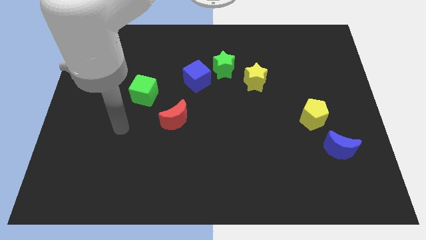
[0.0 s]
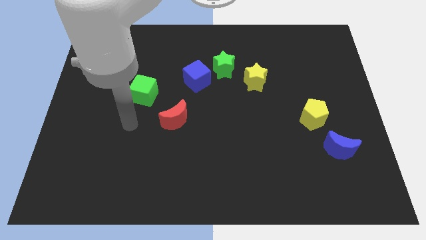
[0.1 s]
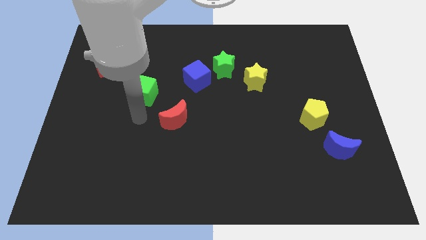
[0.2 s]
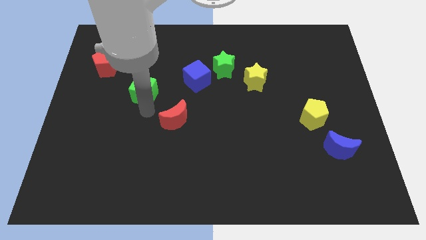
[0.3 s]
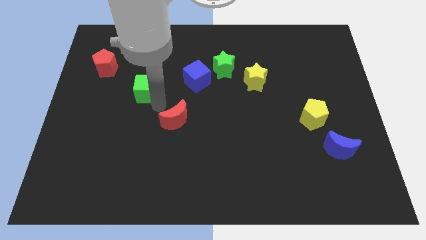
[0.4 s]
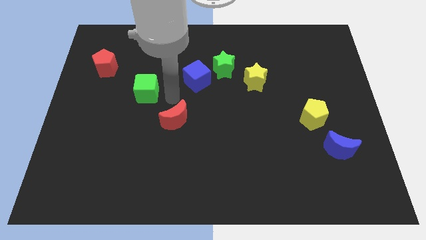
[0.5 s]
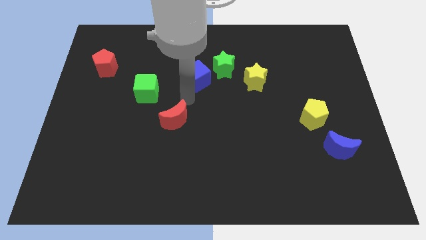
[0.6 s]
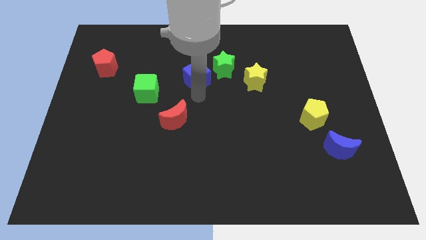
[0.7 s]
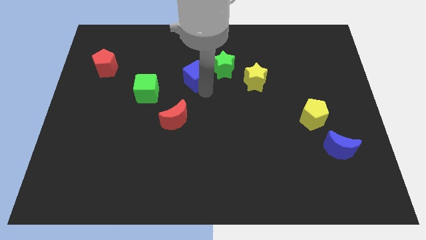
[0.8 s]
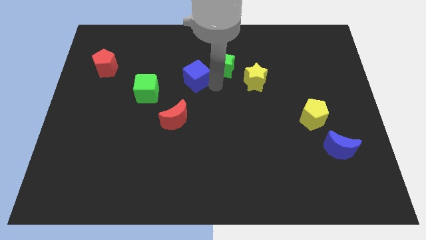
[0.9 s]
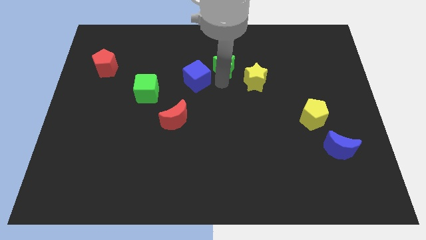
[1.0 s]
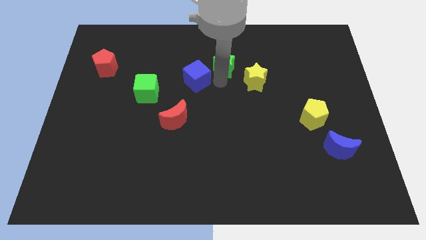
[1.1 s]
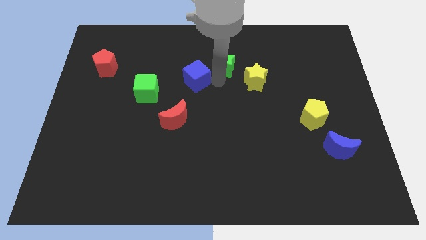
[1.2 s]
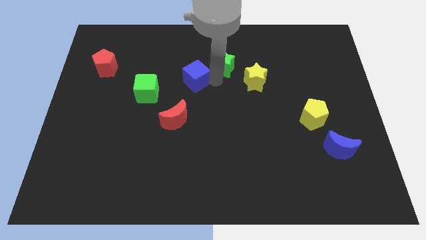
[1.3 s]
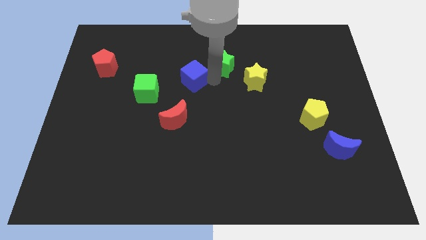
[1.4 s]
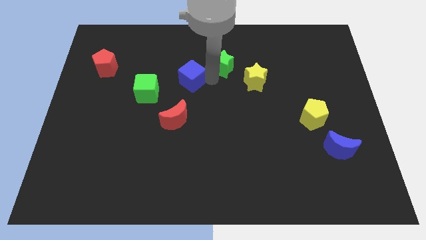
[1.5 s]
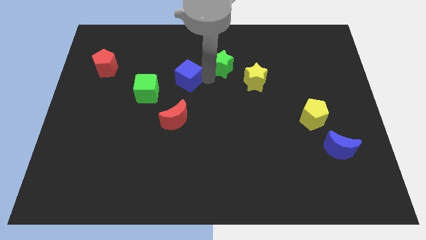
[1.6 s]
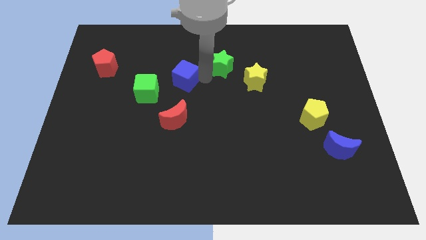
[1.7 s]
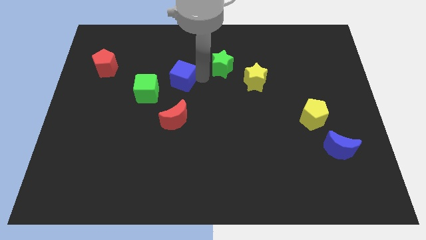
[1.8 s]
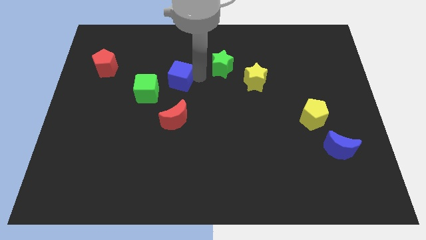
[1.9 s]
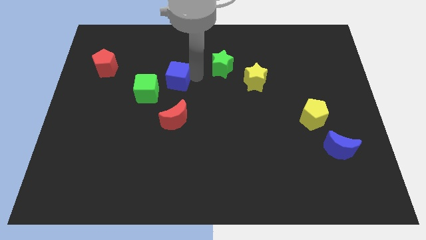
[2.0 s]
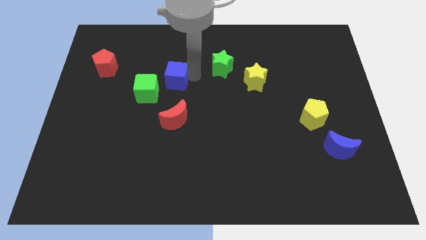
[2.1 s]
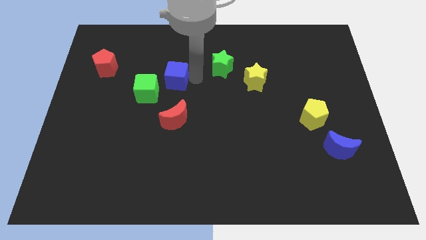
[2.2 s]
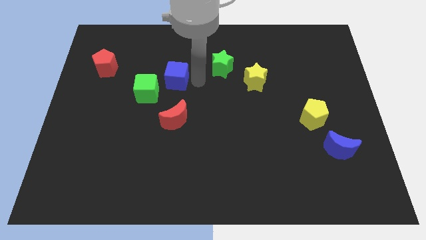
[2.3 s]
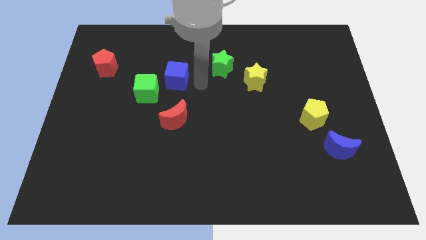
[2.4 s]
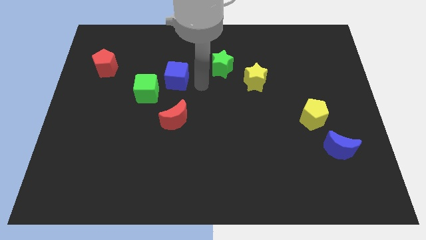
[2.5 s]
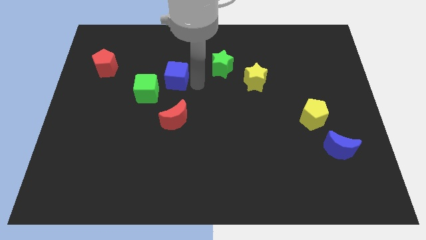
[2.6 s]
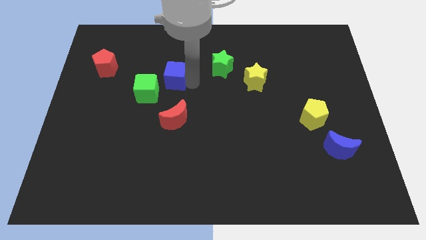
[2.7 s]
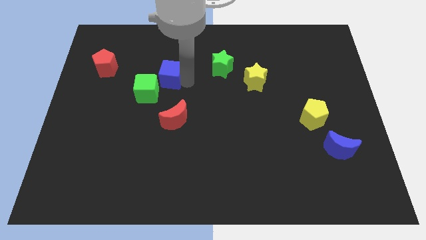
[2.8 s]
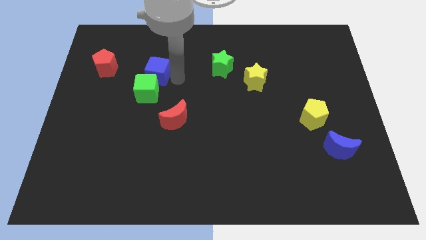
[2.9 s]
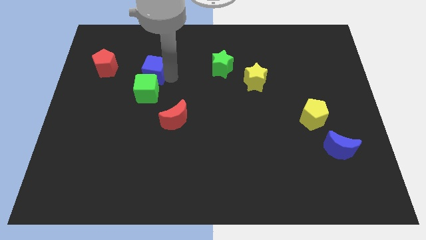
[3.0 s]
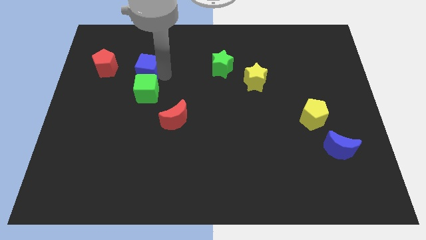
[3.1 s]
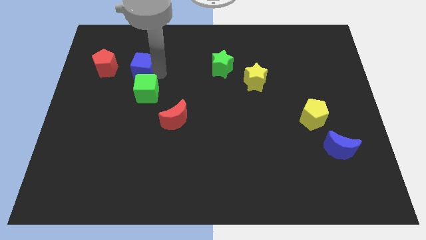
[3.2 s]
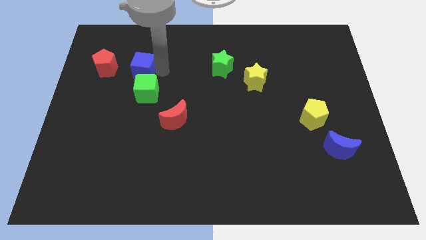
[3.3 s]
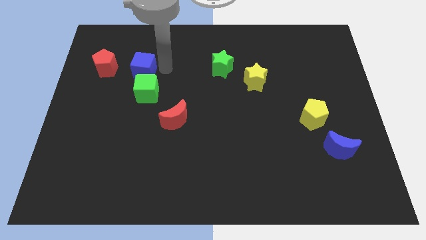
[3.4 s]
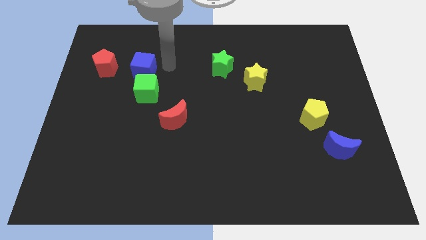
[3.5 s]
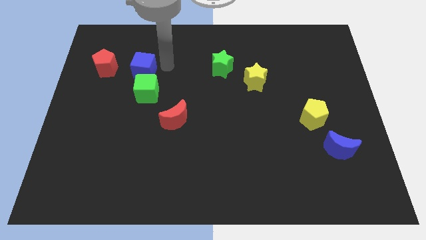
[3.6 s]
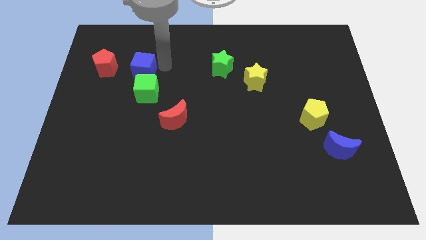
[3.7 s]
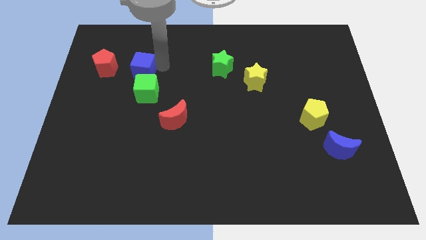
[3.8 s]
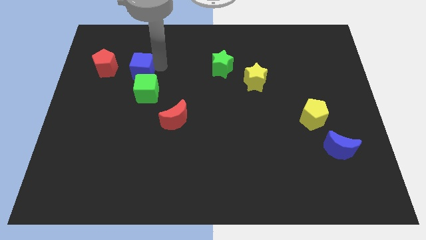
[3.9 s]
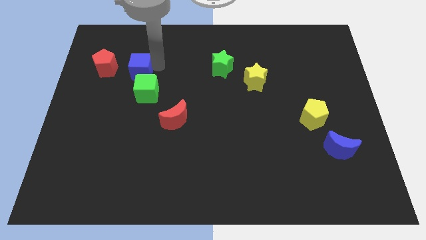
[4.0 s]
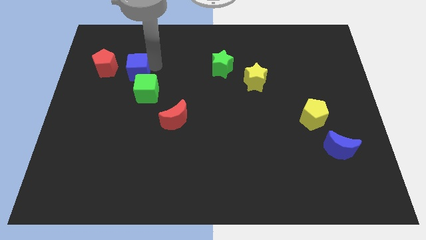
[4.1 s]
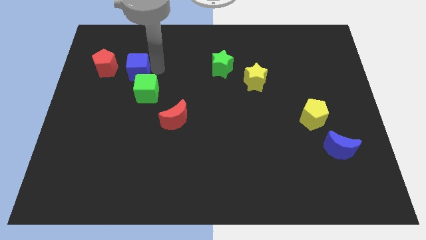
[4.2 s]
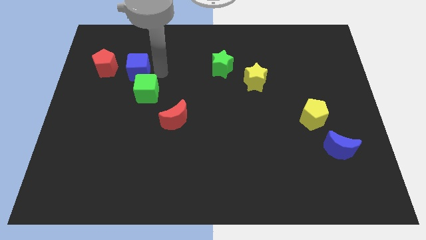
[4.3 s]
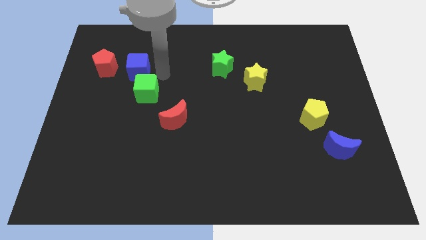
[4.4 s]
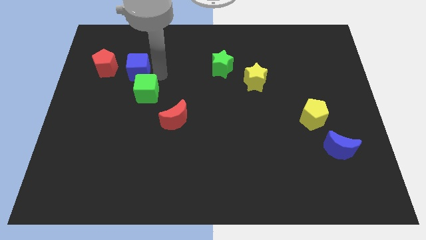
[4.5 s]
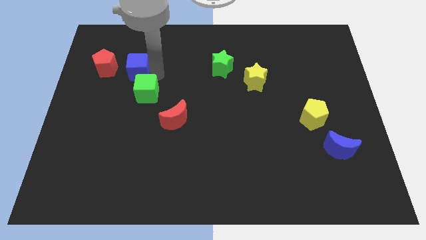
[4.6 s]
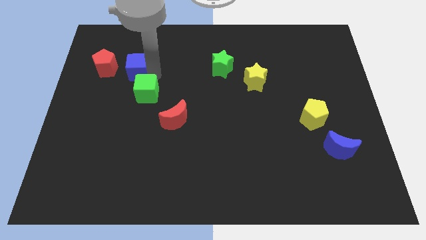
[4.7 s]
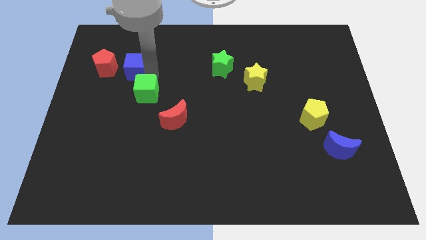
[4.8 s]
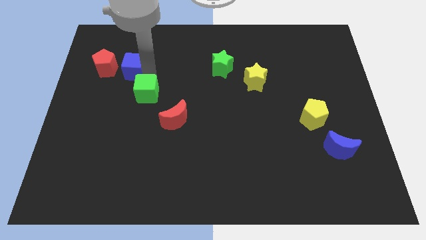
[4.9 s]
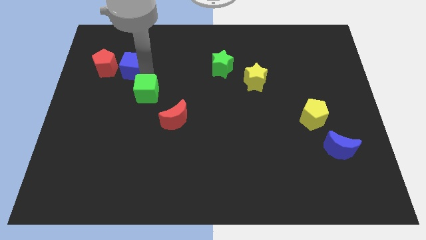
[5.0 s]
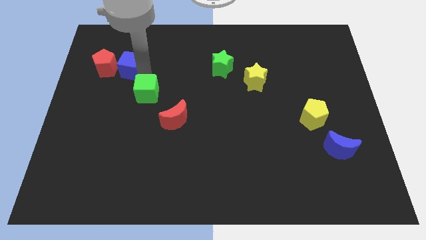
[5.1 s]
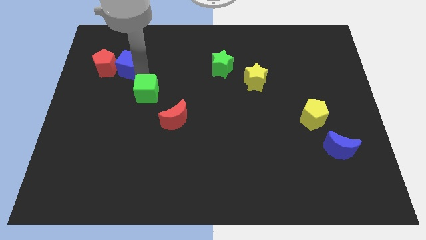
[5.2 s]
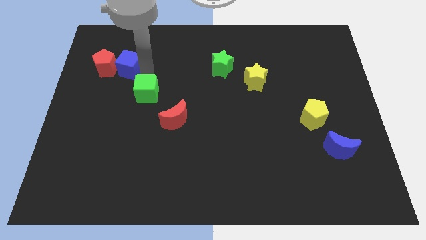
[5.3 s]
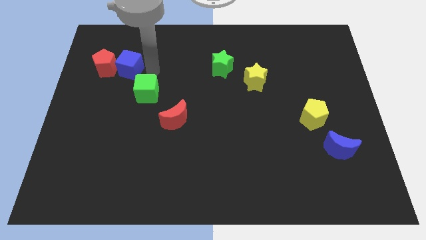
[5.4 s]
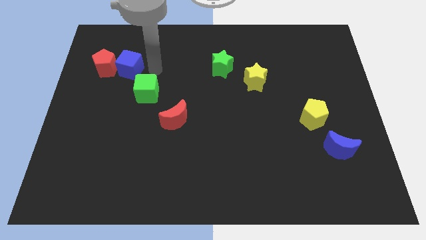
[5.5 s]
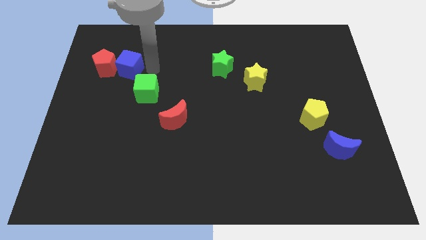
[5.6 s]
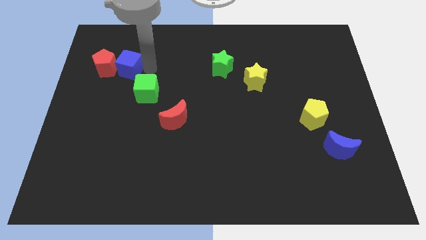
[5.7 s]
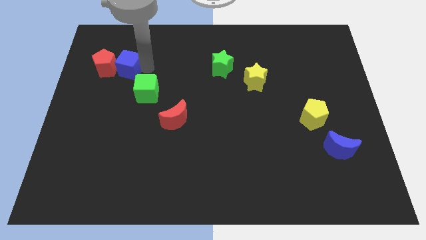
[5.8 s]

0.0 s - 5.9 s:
slide the blue cube next to the red pentagon

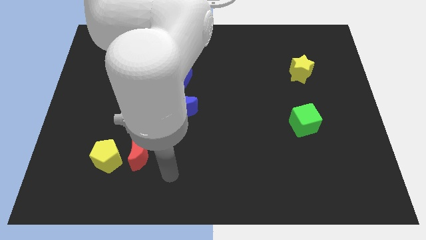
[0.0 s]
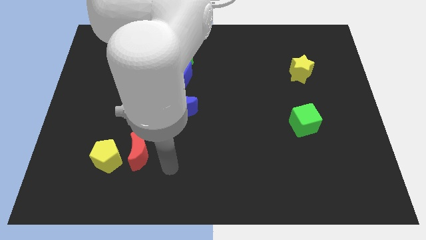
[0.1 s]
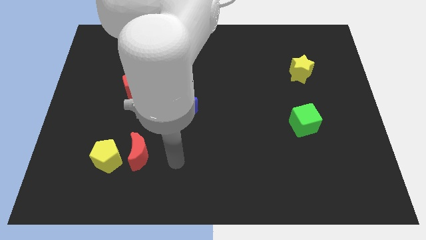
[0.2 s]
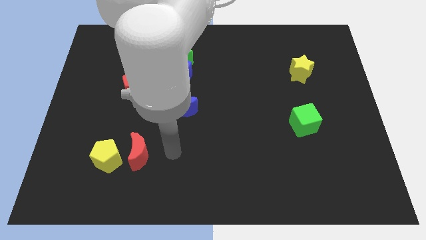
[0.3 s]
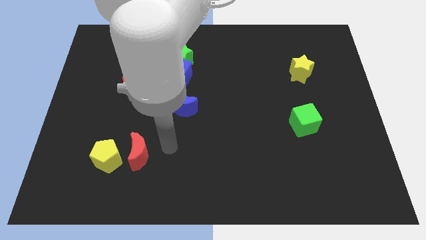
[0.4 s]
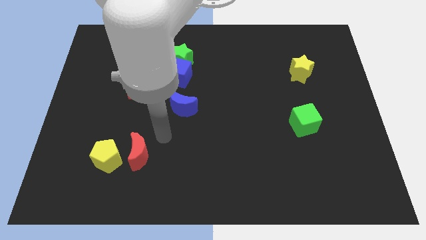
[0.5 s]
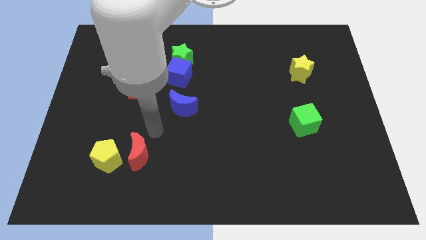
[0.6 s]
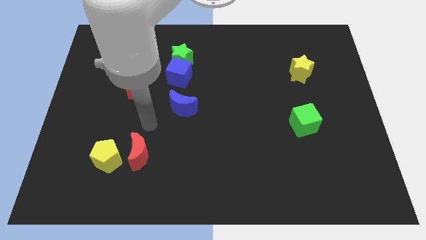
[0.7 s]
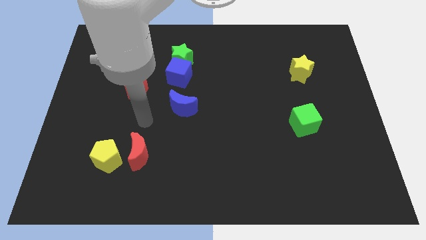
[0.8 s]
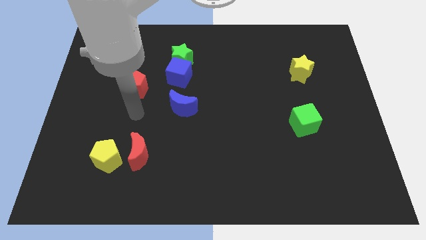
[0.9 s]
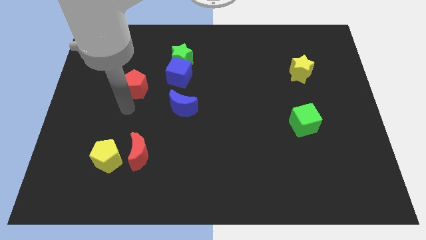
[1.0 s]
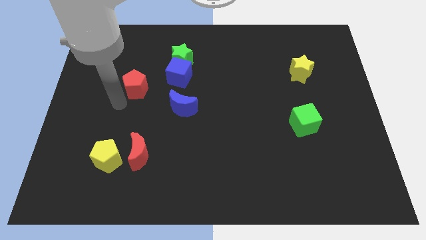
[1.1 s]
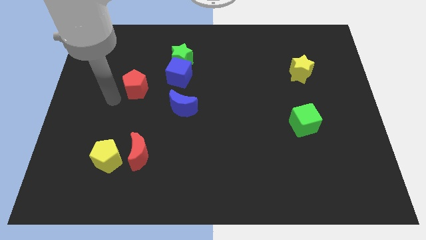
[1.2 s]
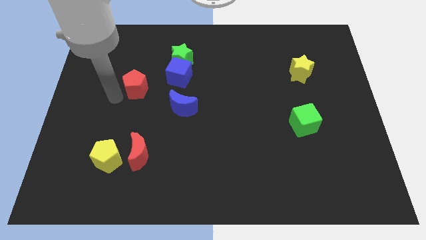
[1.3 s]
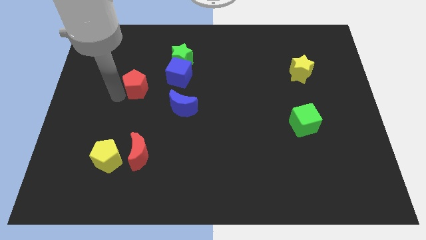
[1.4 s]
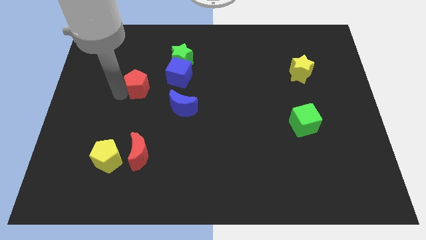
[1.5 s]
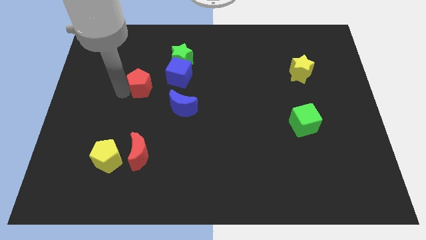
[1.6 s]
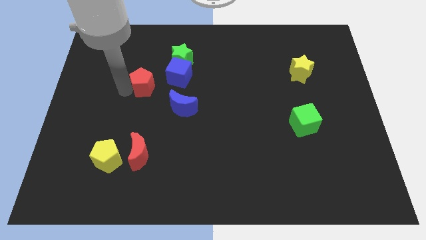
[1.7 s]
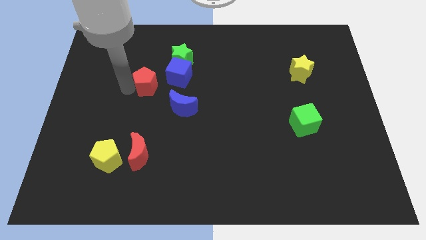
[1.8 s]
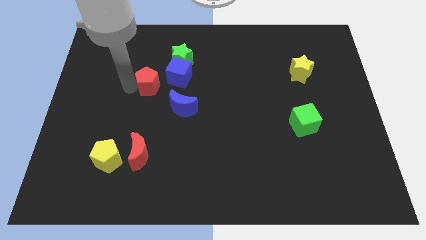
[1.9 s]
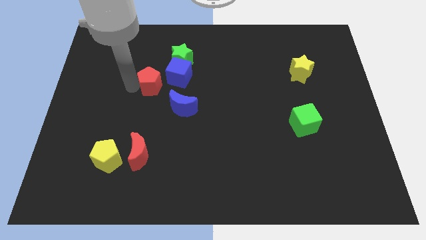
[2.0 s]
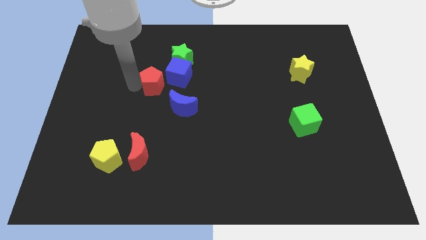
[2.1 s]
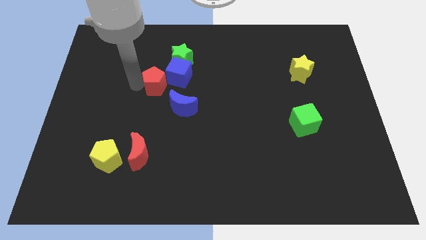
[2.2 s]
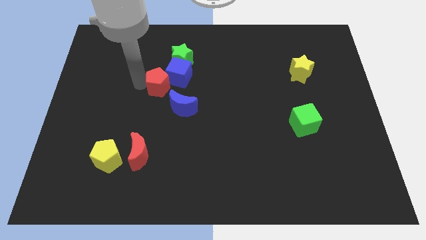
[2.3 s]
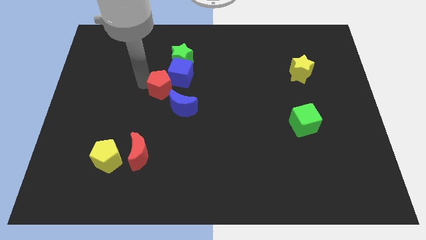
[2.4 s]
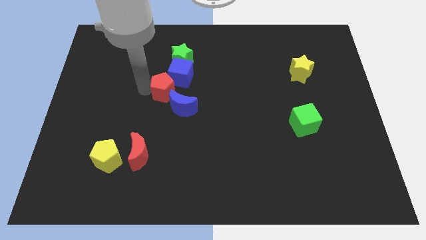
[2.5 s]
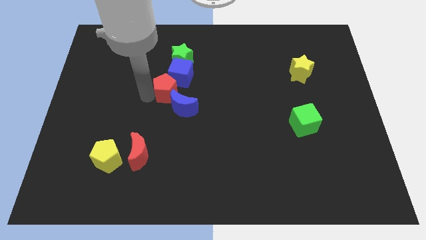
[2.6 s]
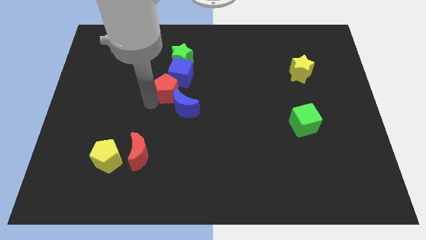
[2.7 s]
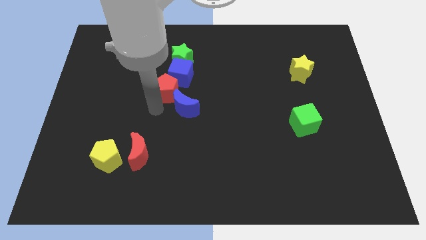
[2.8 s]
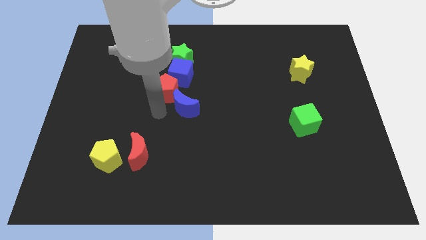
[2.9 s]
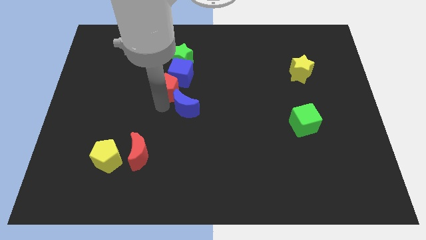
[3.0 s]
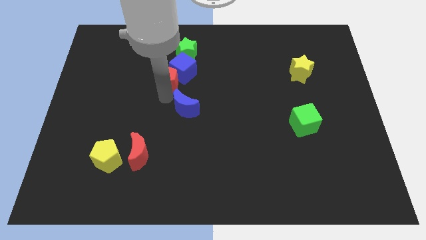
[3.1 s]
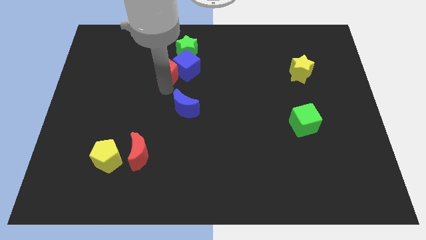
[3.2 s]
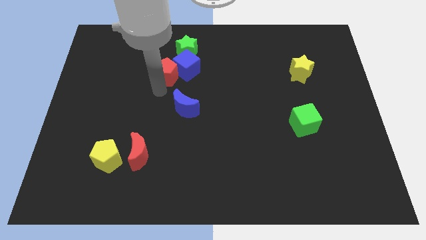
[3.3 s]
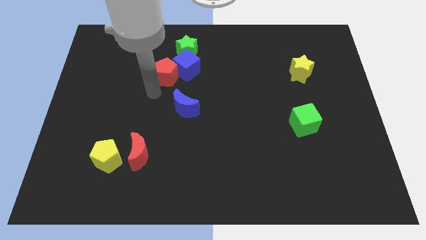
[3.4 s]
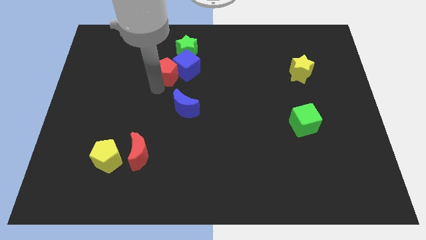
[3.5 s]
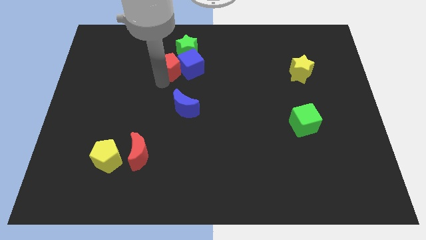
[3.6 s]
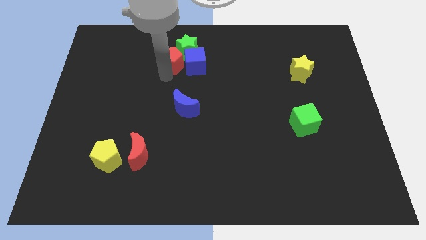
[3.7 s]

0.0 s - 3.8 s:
move the red pentagon close to the green star
